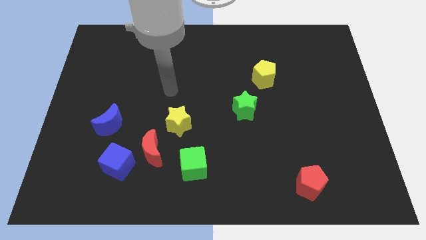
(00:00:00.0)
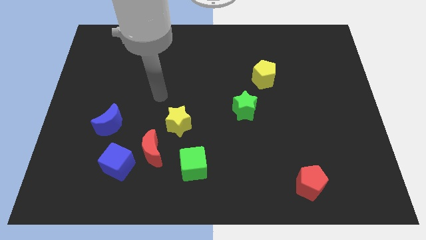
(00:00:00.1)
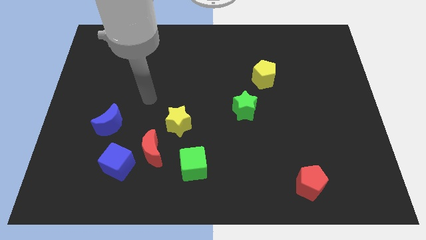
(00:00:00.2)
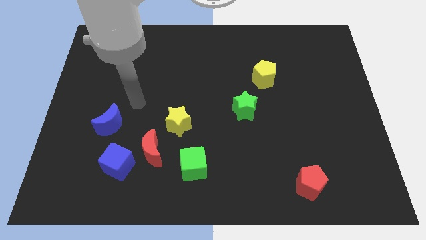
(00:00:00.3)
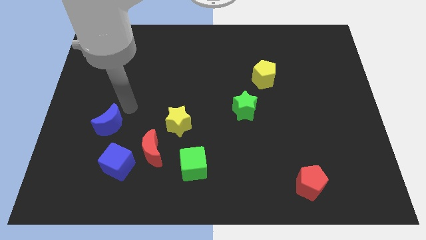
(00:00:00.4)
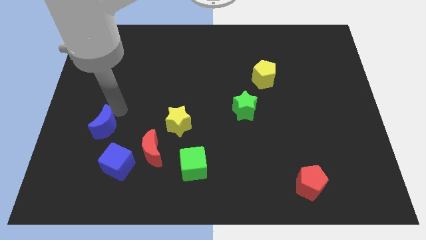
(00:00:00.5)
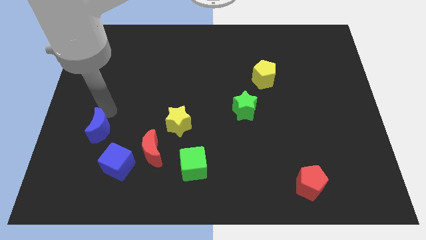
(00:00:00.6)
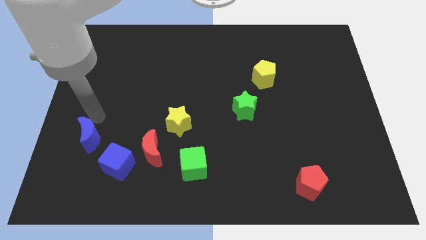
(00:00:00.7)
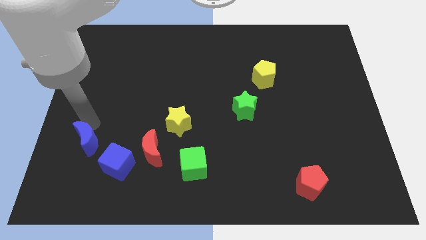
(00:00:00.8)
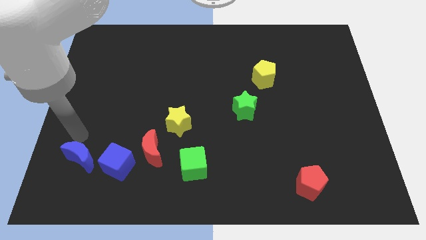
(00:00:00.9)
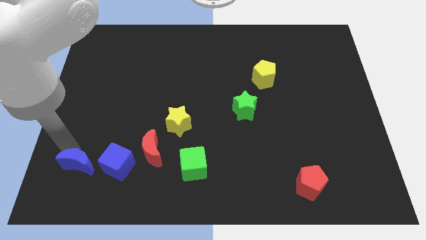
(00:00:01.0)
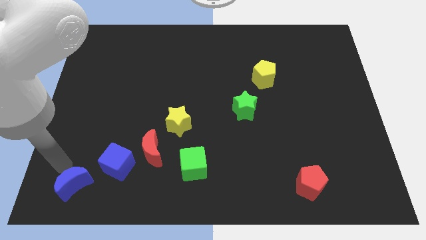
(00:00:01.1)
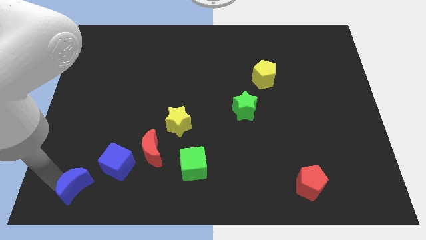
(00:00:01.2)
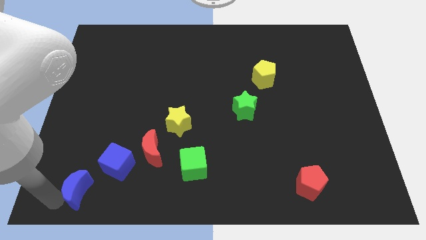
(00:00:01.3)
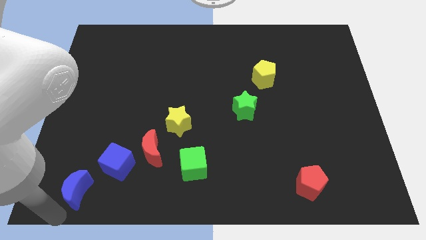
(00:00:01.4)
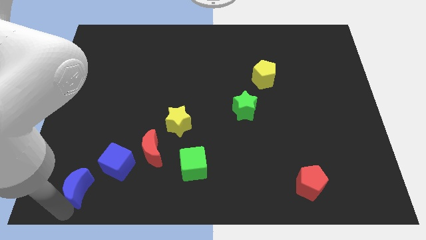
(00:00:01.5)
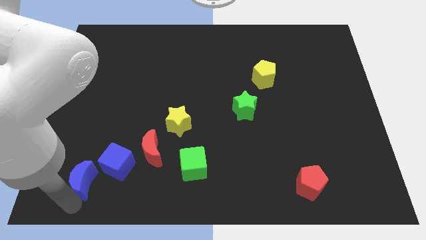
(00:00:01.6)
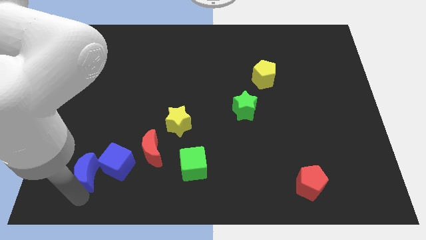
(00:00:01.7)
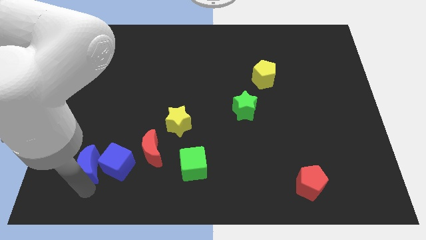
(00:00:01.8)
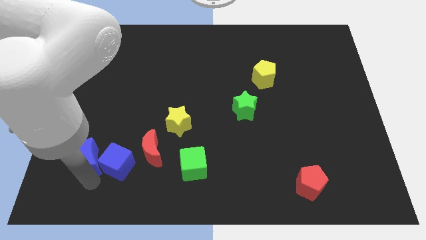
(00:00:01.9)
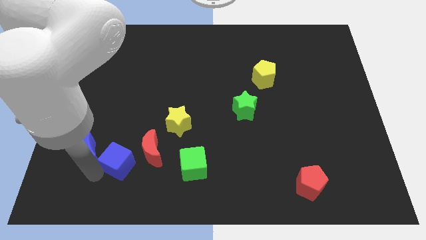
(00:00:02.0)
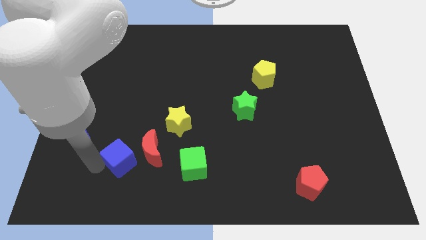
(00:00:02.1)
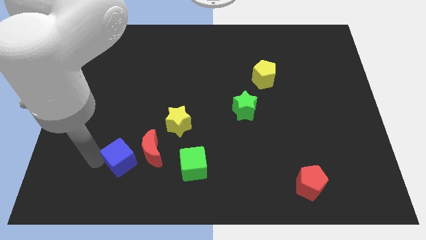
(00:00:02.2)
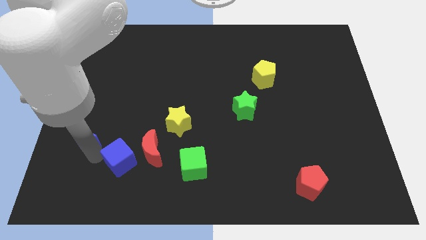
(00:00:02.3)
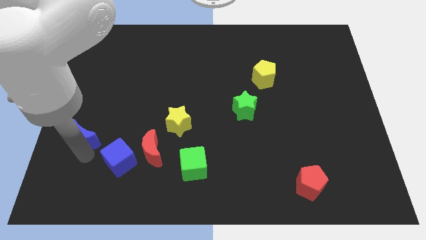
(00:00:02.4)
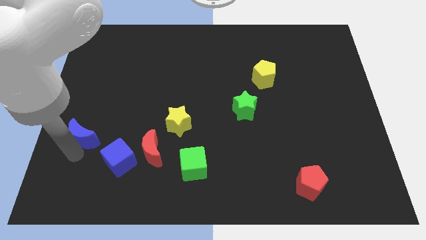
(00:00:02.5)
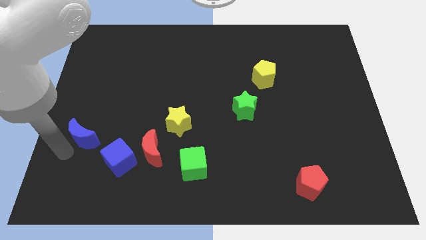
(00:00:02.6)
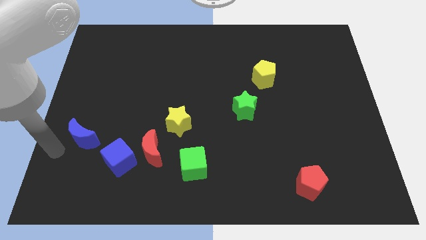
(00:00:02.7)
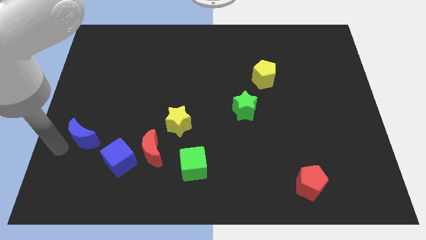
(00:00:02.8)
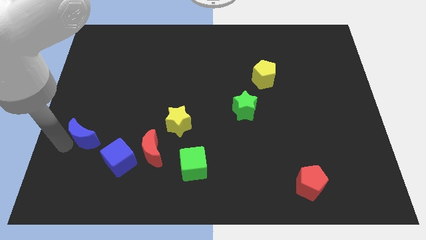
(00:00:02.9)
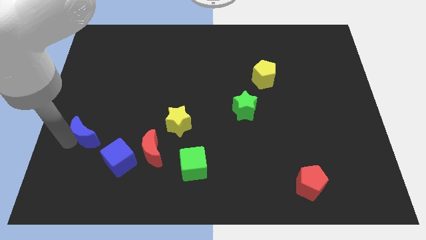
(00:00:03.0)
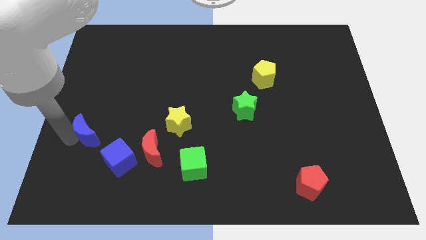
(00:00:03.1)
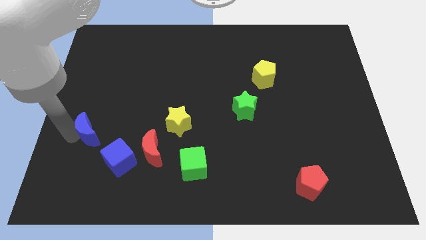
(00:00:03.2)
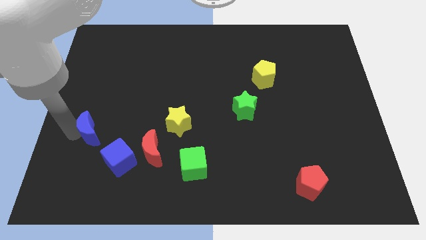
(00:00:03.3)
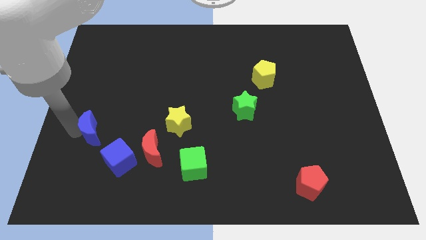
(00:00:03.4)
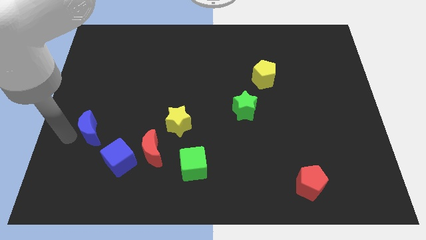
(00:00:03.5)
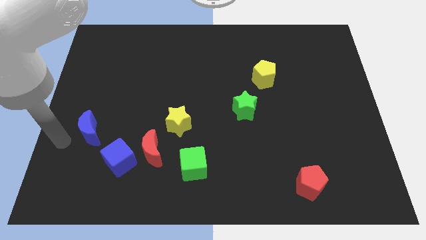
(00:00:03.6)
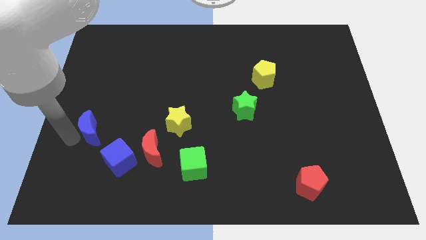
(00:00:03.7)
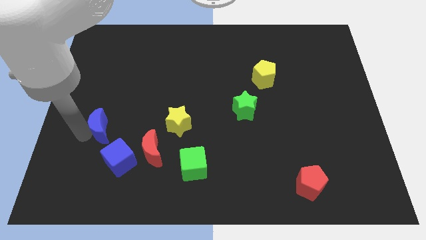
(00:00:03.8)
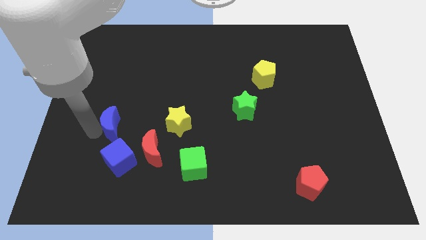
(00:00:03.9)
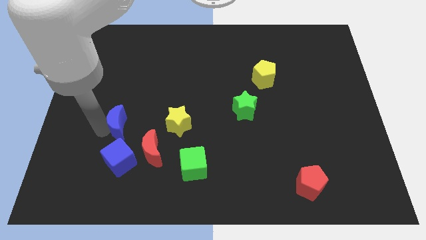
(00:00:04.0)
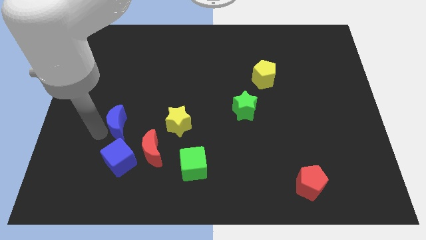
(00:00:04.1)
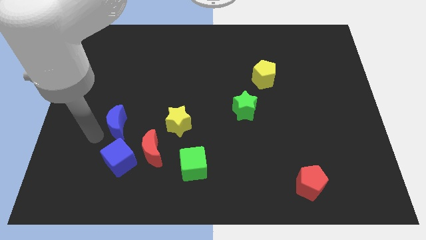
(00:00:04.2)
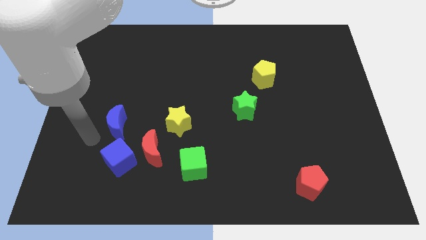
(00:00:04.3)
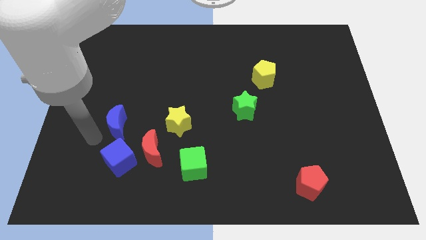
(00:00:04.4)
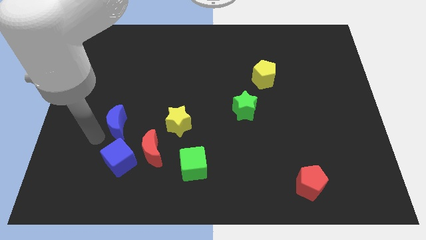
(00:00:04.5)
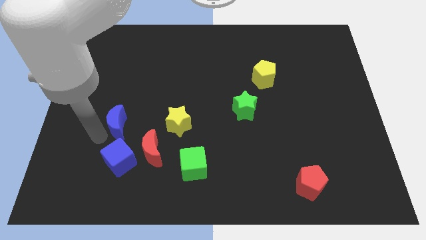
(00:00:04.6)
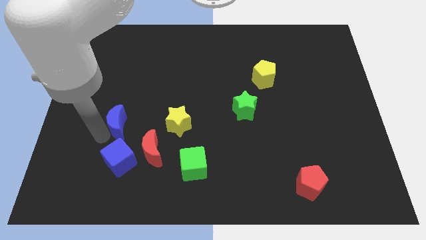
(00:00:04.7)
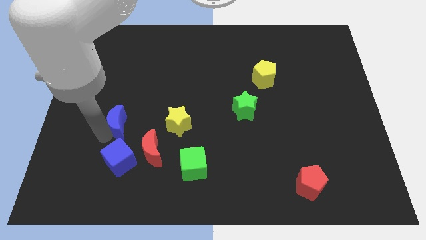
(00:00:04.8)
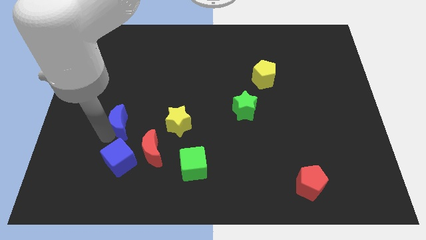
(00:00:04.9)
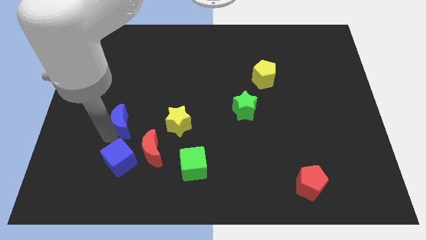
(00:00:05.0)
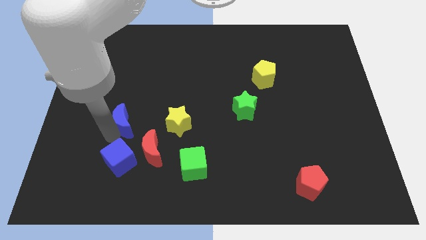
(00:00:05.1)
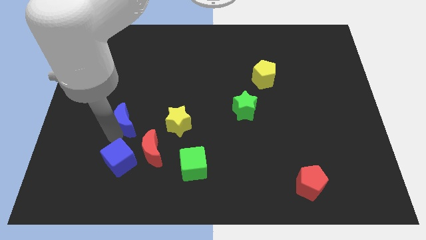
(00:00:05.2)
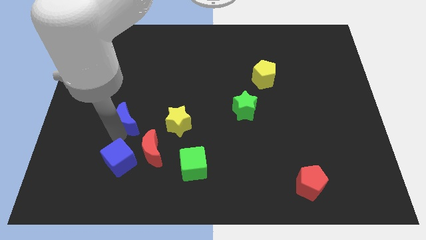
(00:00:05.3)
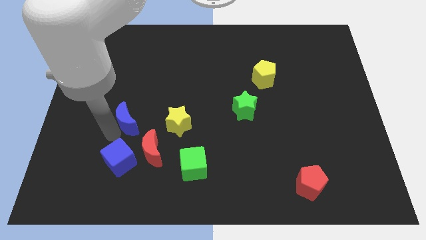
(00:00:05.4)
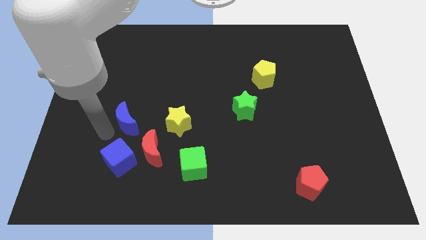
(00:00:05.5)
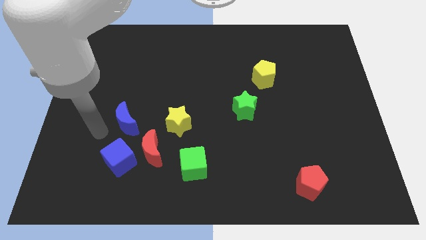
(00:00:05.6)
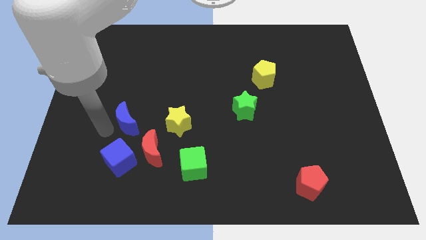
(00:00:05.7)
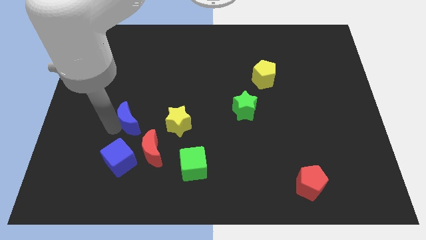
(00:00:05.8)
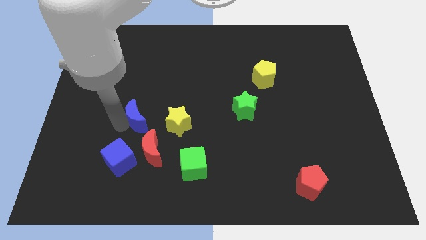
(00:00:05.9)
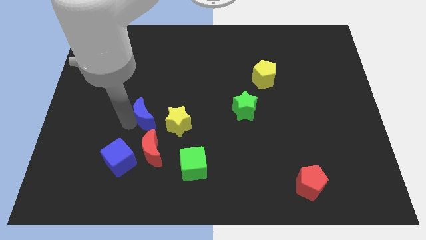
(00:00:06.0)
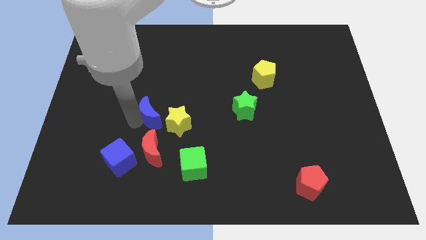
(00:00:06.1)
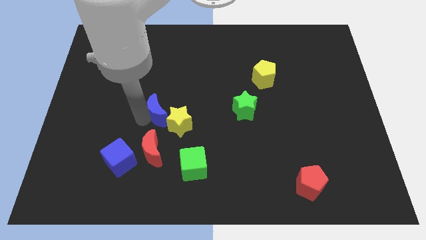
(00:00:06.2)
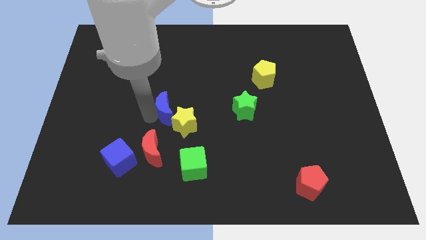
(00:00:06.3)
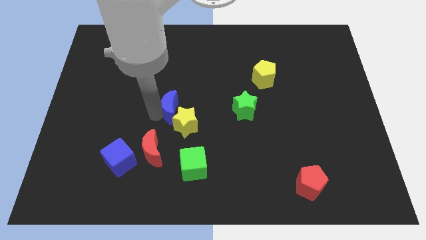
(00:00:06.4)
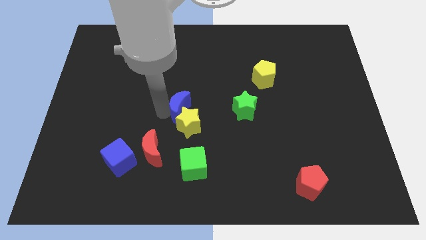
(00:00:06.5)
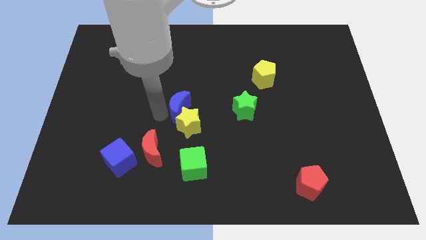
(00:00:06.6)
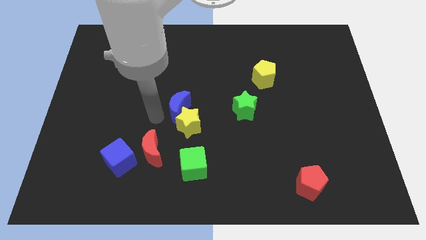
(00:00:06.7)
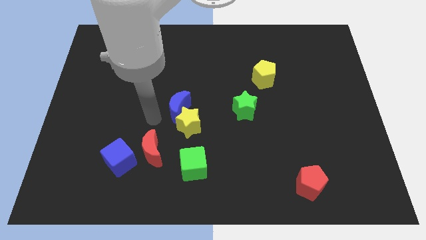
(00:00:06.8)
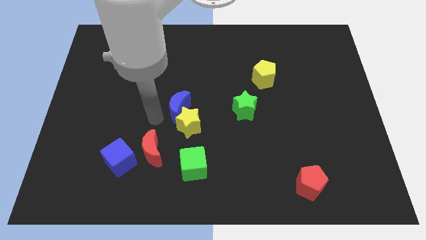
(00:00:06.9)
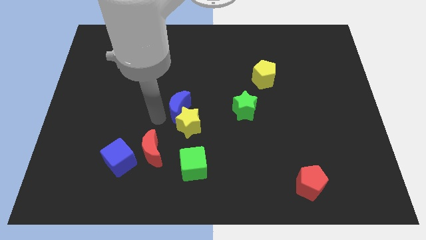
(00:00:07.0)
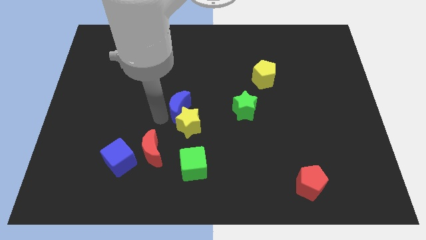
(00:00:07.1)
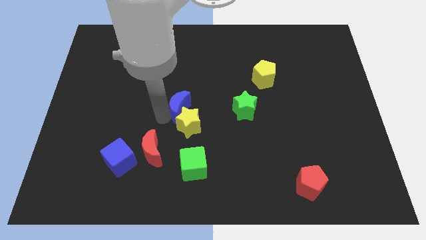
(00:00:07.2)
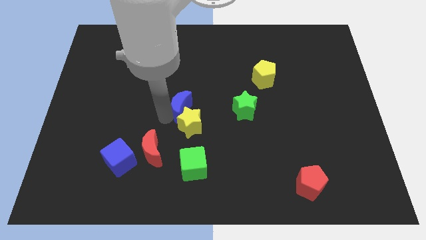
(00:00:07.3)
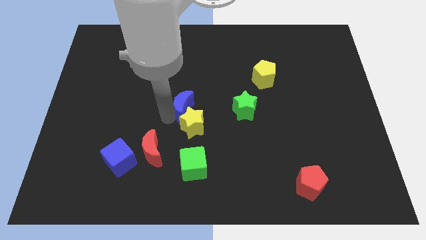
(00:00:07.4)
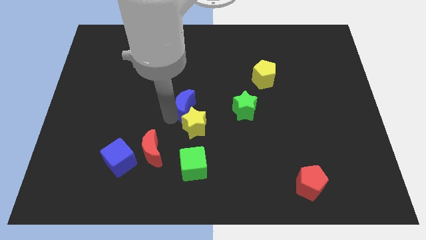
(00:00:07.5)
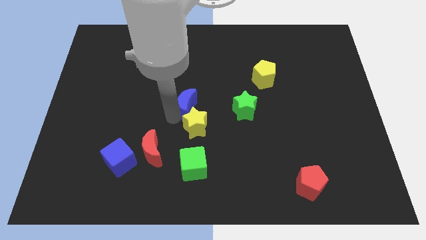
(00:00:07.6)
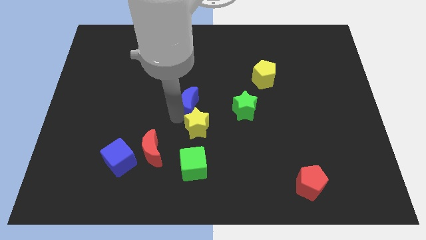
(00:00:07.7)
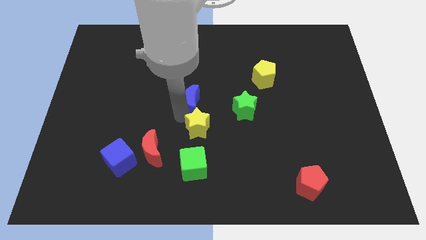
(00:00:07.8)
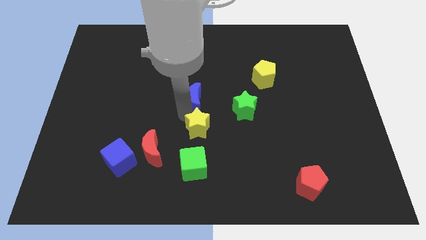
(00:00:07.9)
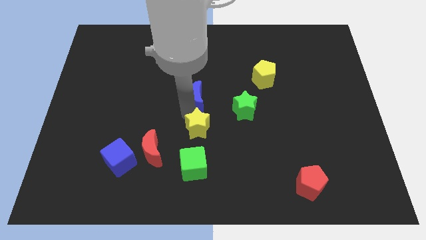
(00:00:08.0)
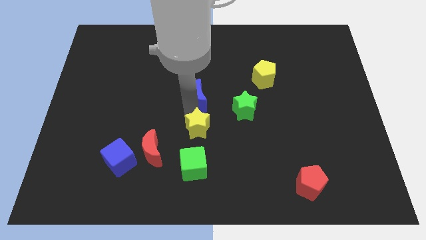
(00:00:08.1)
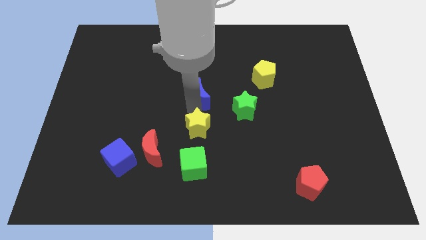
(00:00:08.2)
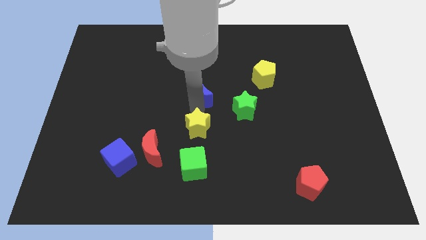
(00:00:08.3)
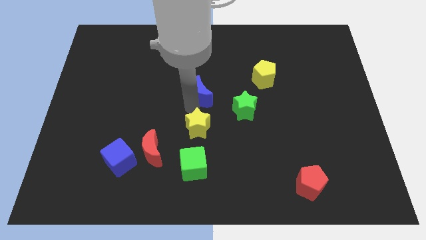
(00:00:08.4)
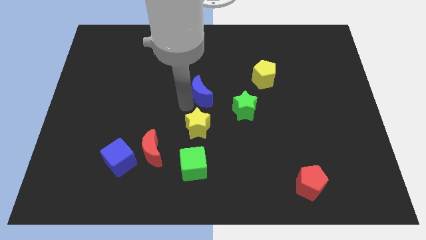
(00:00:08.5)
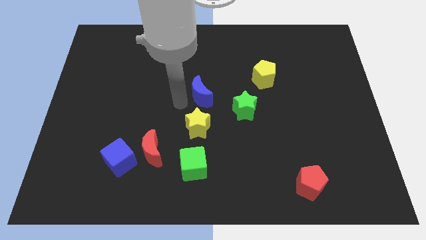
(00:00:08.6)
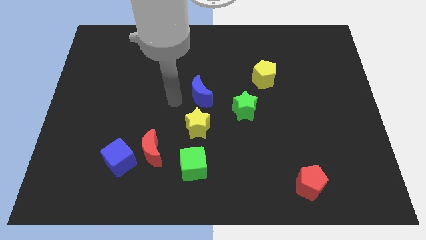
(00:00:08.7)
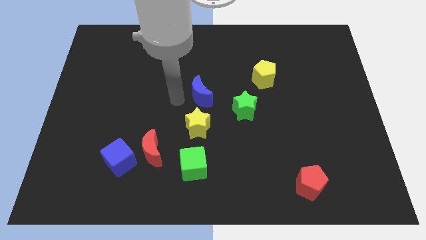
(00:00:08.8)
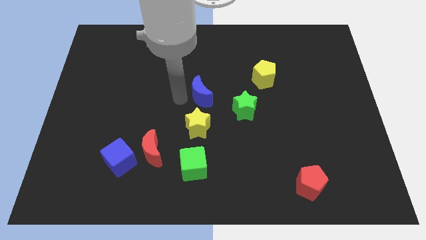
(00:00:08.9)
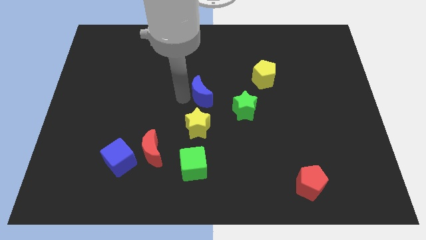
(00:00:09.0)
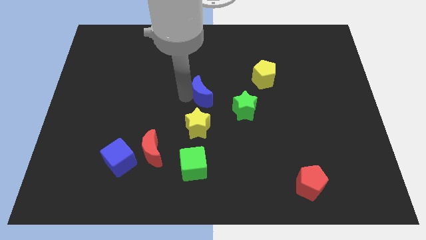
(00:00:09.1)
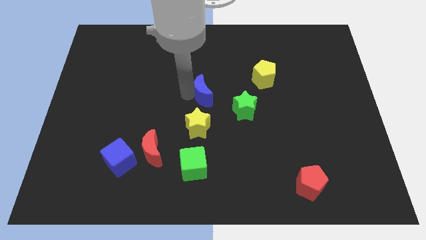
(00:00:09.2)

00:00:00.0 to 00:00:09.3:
move the blue moon to the top left side of the green star
